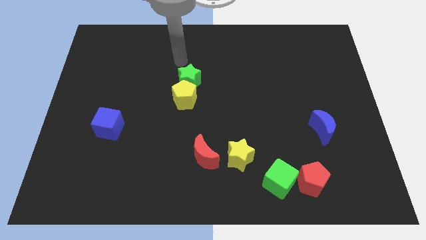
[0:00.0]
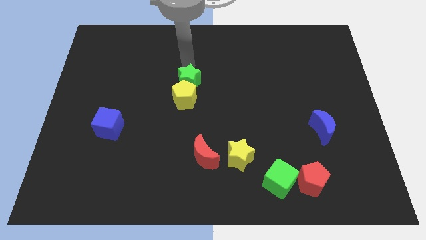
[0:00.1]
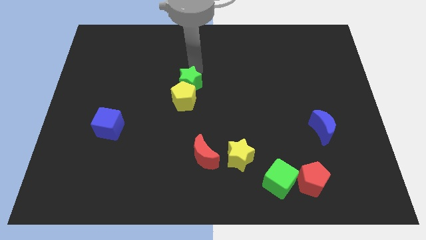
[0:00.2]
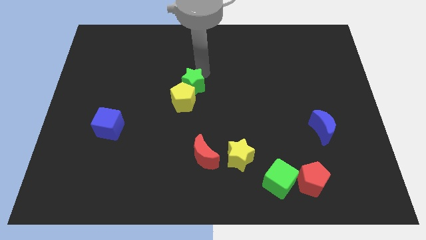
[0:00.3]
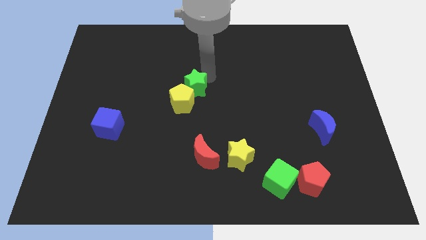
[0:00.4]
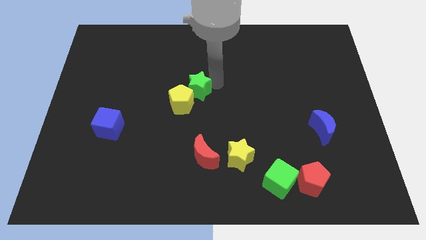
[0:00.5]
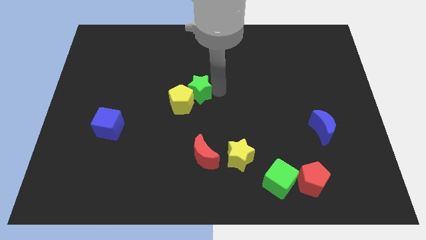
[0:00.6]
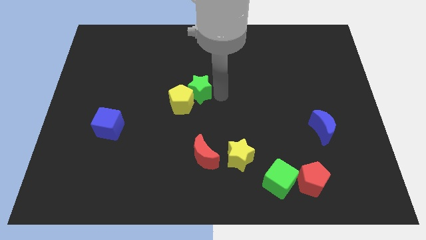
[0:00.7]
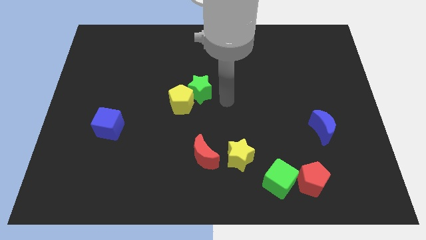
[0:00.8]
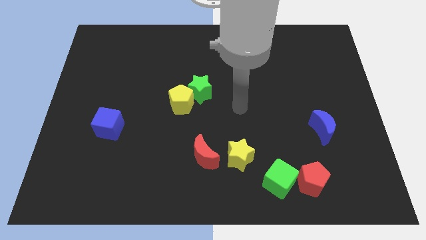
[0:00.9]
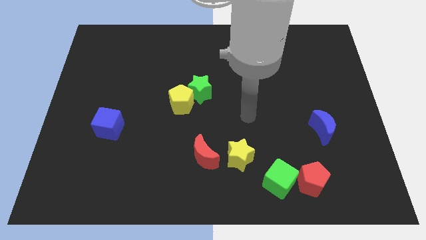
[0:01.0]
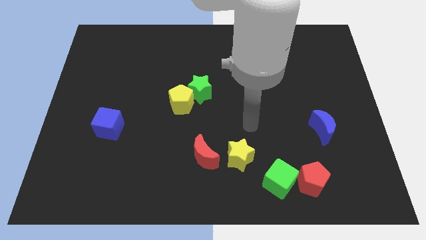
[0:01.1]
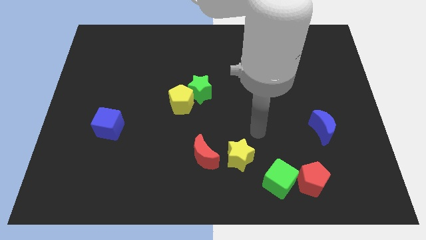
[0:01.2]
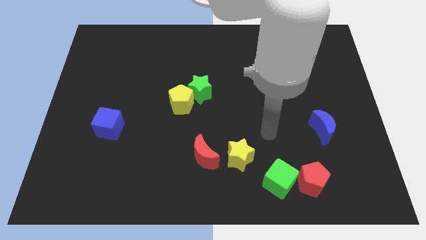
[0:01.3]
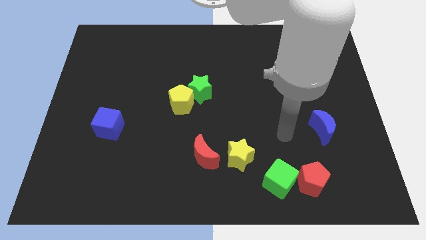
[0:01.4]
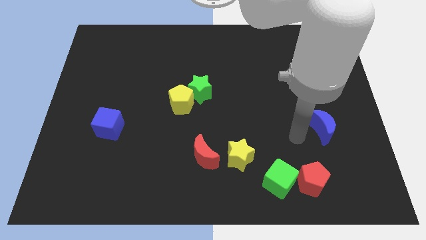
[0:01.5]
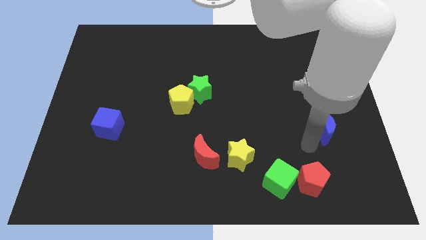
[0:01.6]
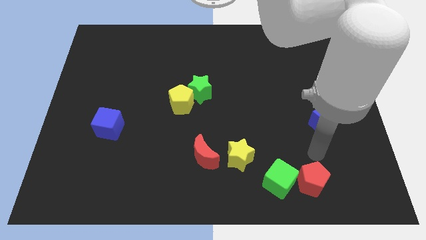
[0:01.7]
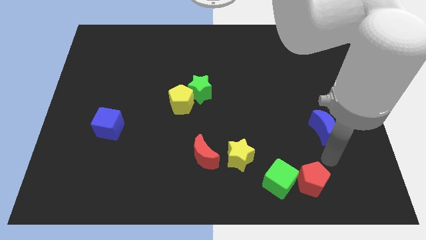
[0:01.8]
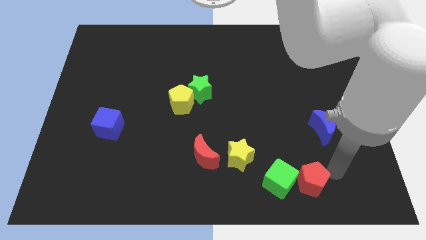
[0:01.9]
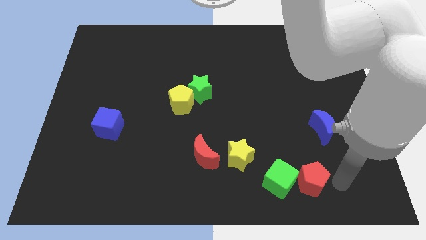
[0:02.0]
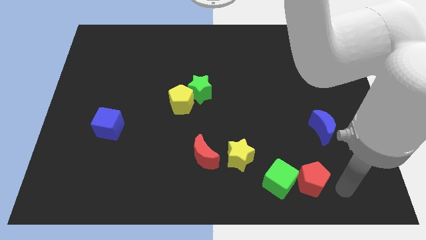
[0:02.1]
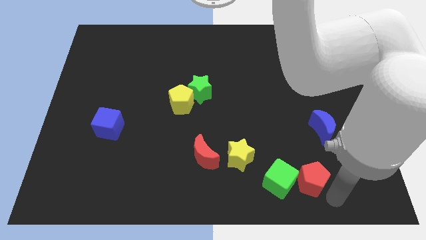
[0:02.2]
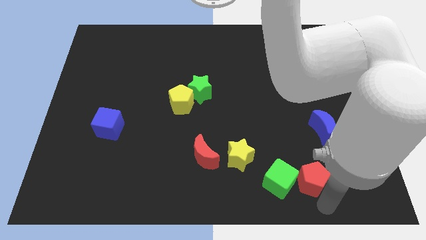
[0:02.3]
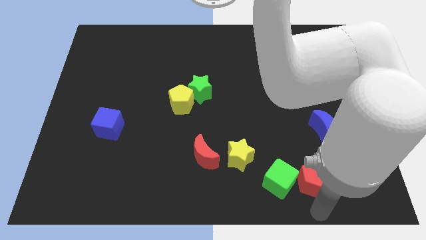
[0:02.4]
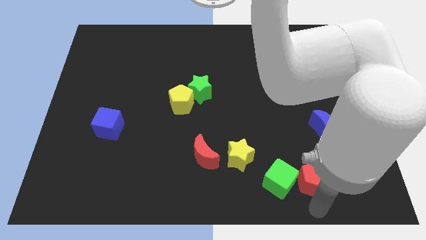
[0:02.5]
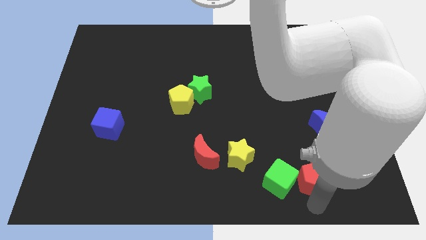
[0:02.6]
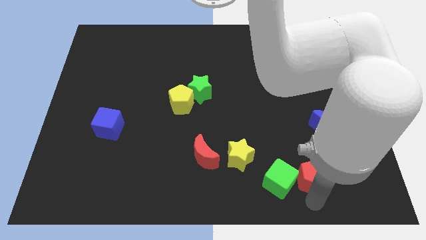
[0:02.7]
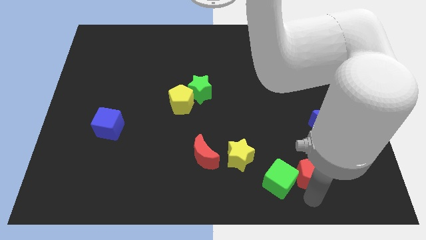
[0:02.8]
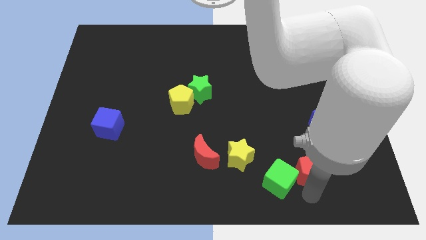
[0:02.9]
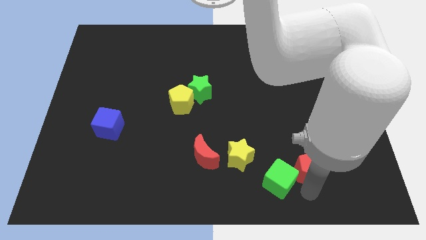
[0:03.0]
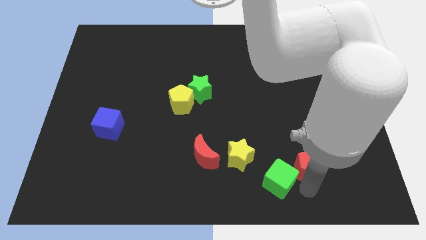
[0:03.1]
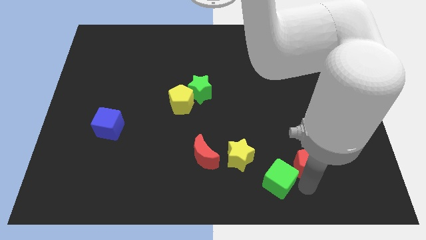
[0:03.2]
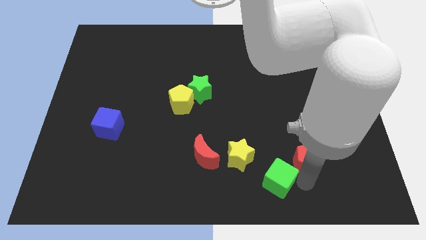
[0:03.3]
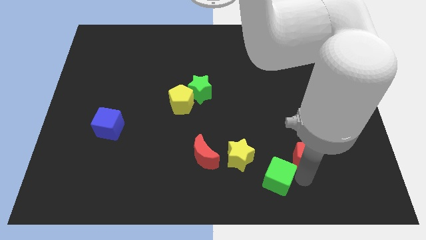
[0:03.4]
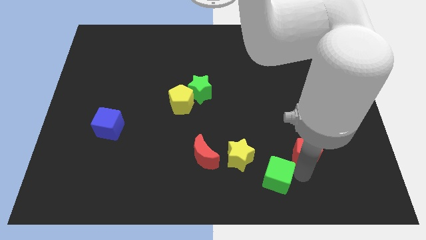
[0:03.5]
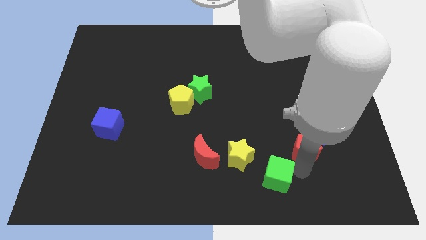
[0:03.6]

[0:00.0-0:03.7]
slightly move the red pentagon up

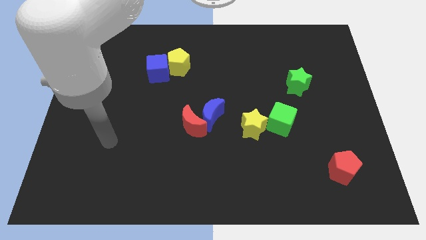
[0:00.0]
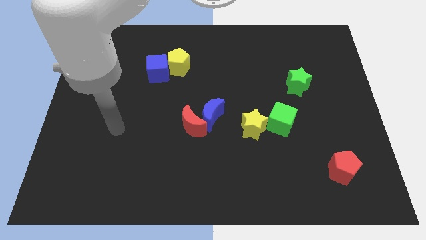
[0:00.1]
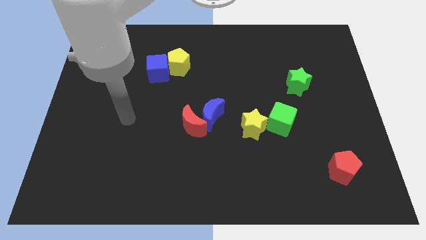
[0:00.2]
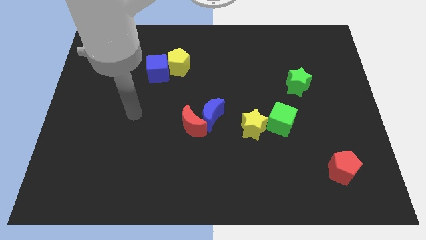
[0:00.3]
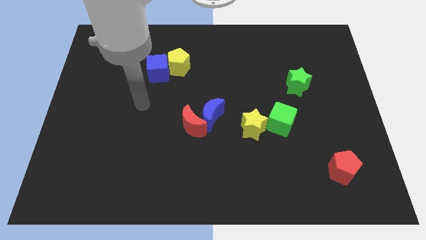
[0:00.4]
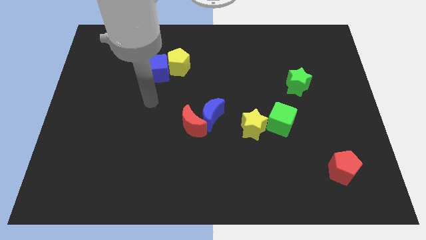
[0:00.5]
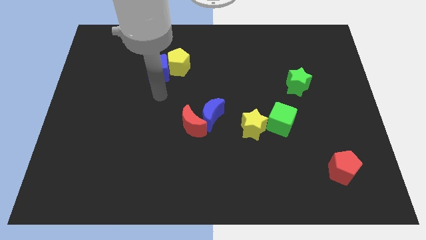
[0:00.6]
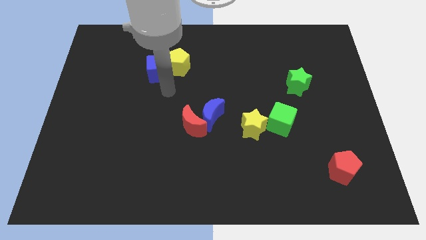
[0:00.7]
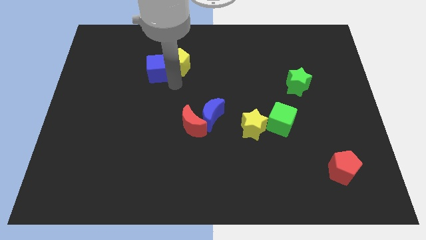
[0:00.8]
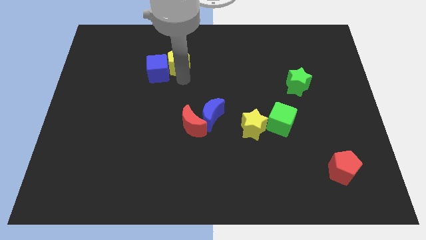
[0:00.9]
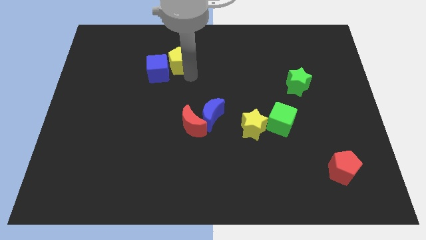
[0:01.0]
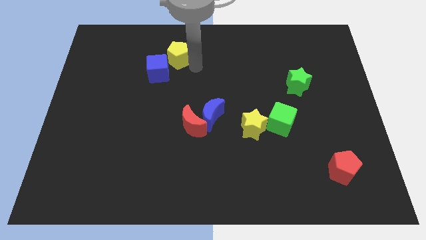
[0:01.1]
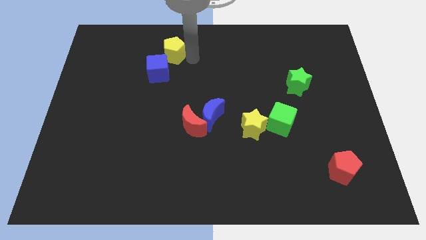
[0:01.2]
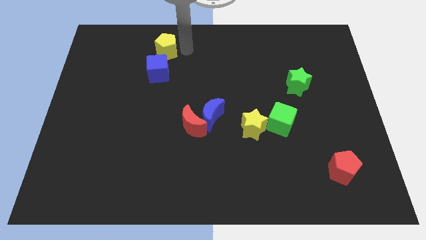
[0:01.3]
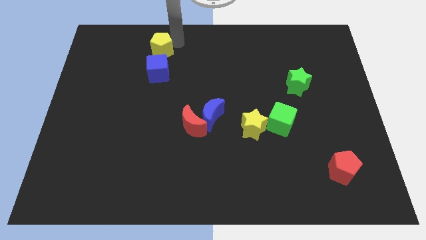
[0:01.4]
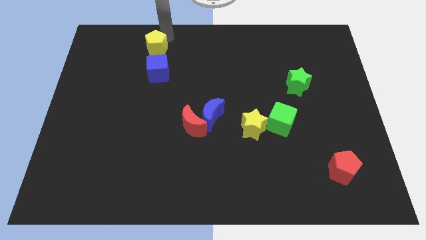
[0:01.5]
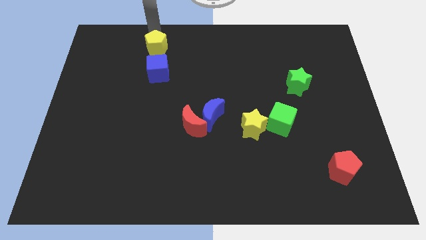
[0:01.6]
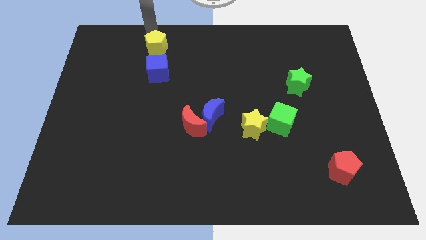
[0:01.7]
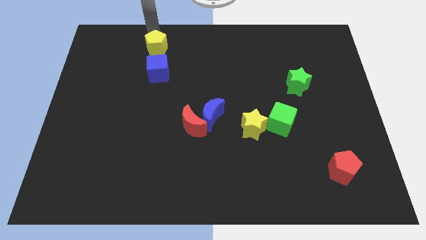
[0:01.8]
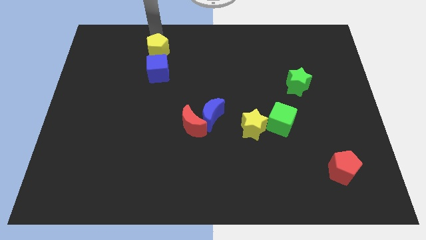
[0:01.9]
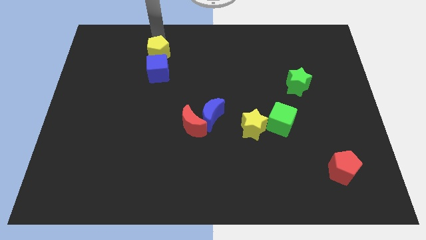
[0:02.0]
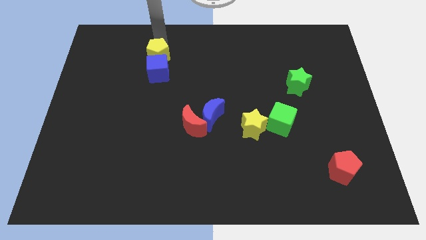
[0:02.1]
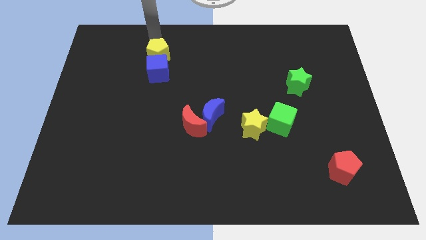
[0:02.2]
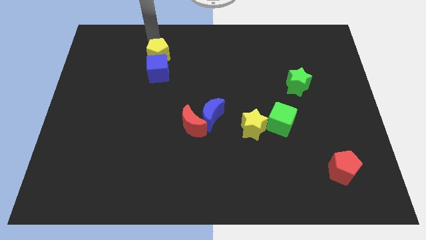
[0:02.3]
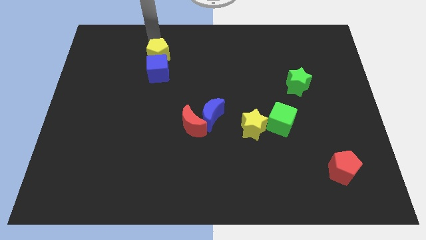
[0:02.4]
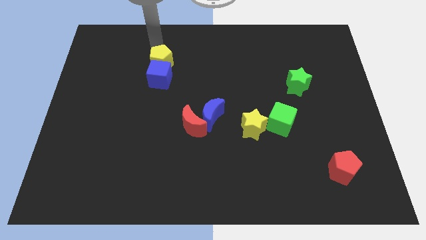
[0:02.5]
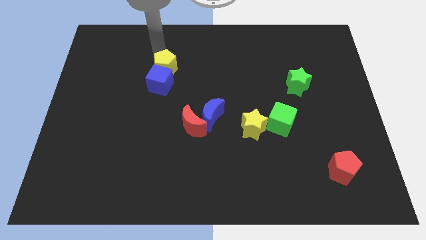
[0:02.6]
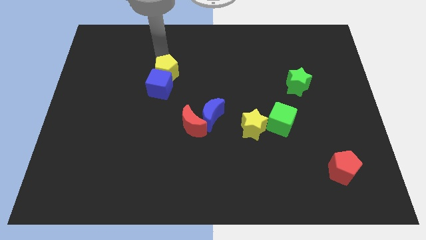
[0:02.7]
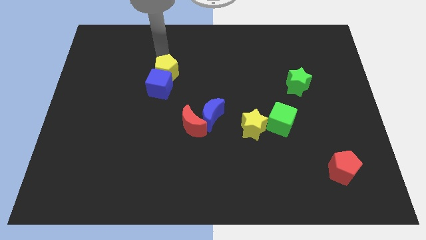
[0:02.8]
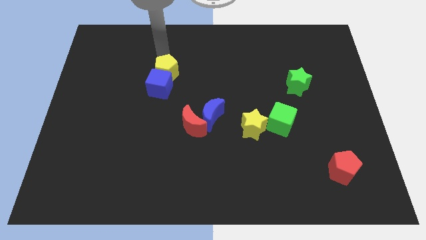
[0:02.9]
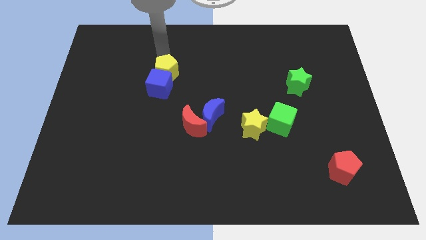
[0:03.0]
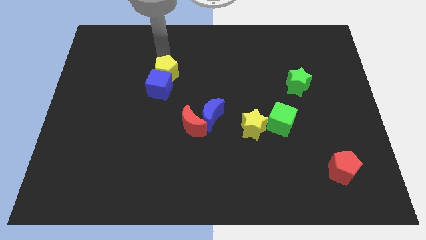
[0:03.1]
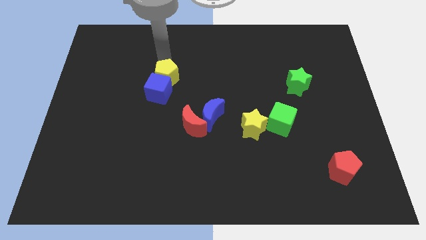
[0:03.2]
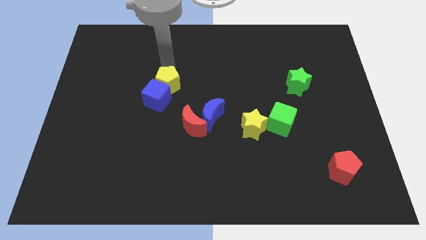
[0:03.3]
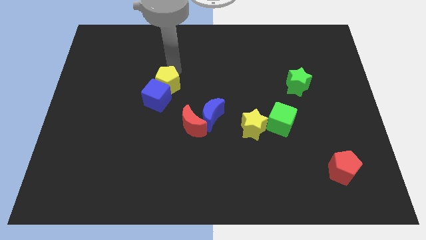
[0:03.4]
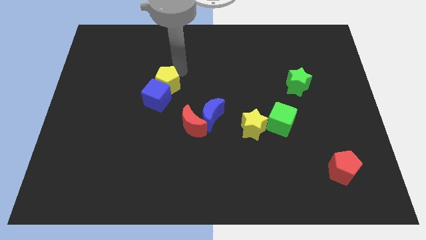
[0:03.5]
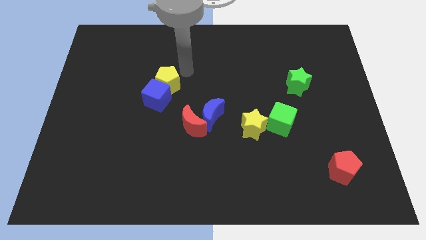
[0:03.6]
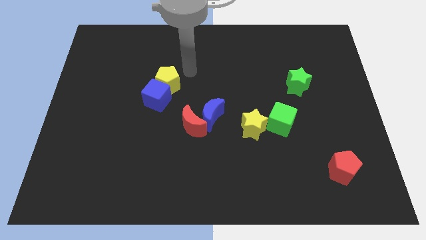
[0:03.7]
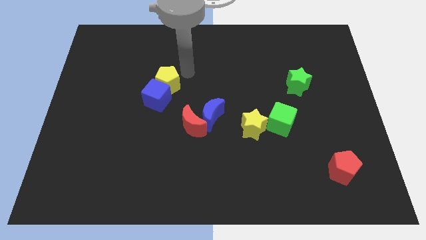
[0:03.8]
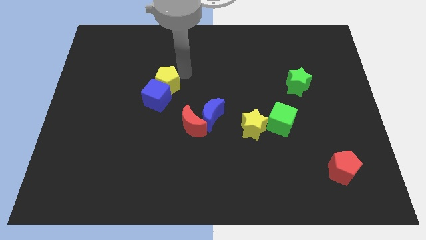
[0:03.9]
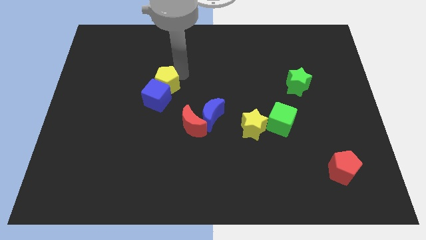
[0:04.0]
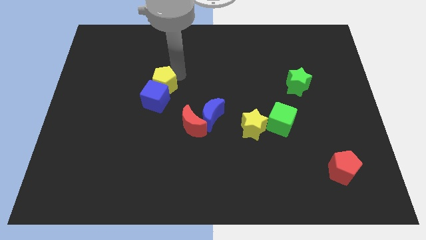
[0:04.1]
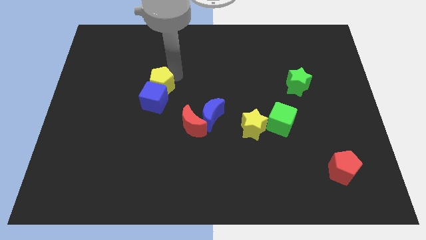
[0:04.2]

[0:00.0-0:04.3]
slightly move the yellow pentagon downwards and then left

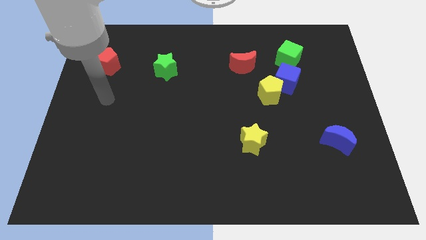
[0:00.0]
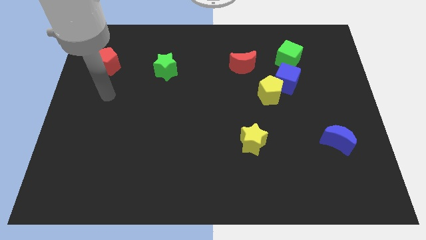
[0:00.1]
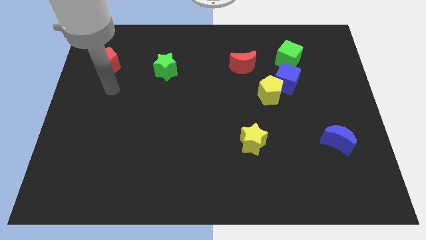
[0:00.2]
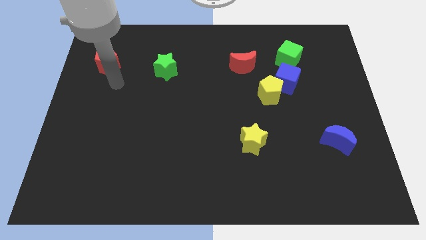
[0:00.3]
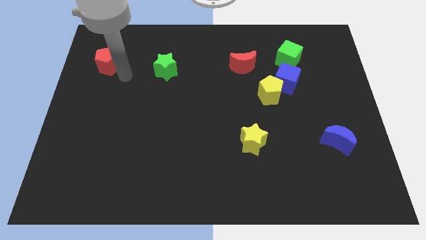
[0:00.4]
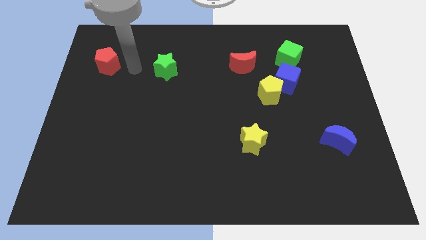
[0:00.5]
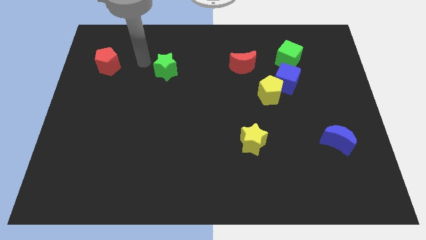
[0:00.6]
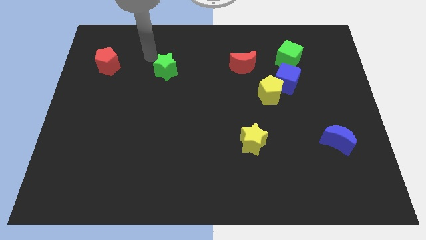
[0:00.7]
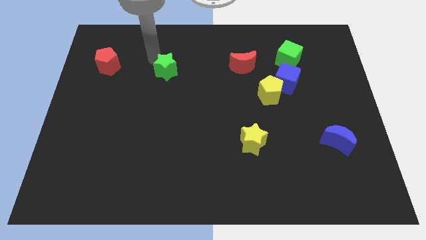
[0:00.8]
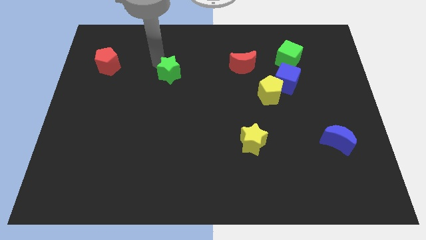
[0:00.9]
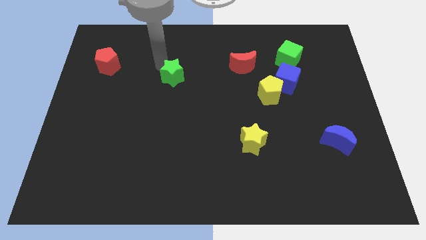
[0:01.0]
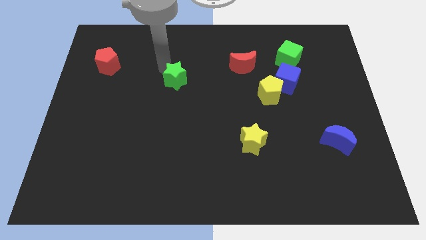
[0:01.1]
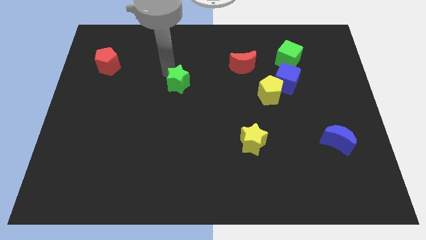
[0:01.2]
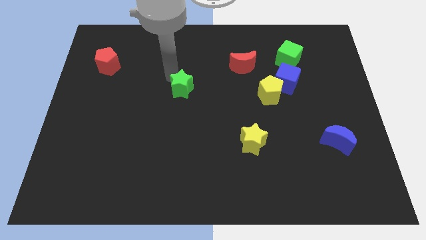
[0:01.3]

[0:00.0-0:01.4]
move the green star downwards and then to the right somewhat
